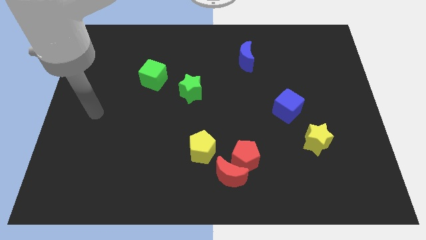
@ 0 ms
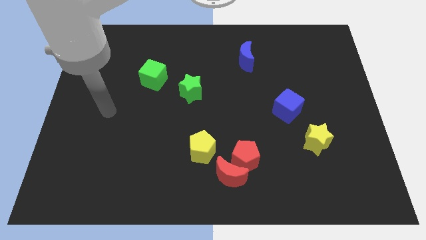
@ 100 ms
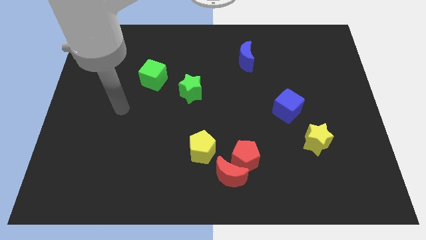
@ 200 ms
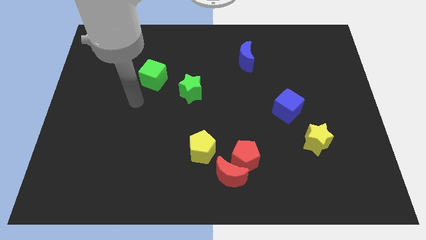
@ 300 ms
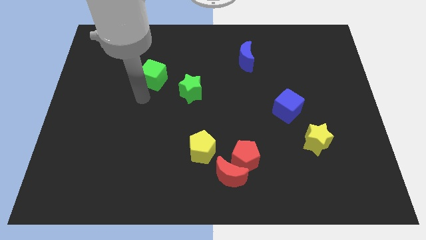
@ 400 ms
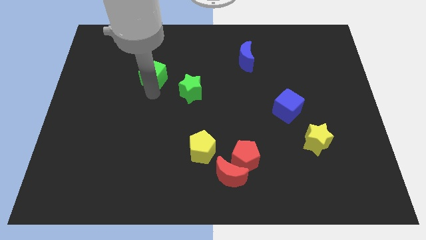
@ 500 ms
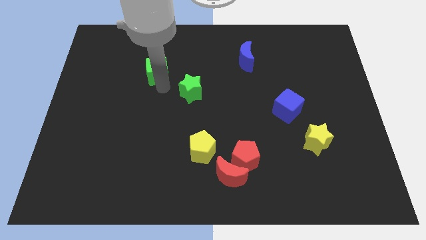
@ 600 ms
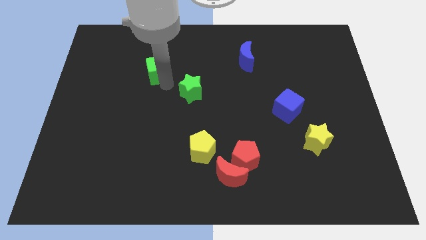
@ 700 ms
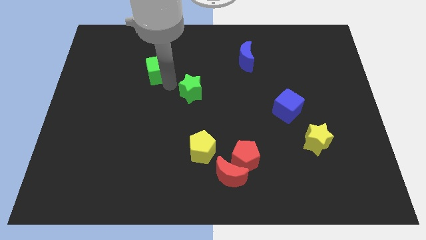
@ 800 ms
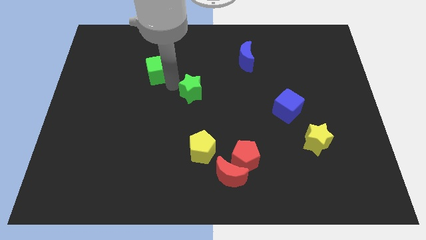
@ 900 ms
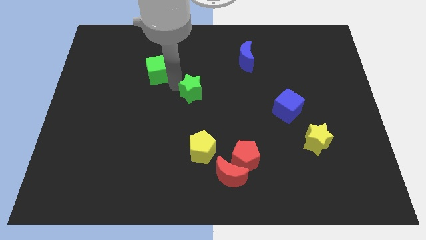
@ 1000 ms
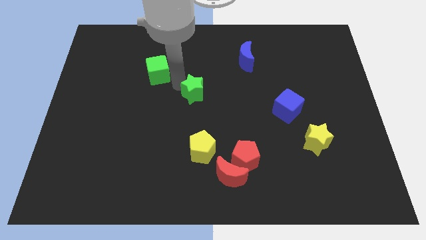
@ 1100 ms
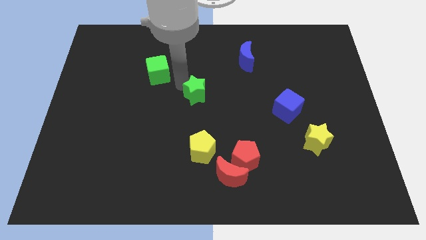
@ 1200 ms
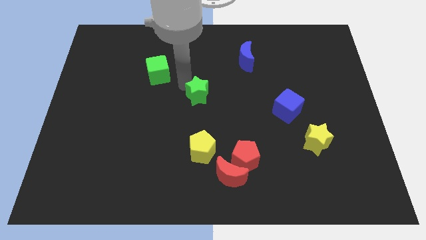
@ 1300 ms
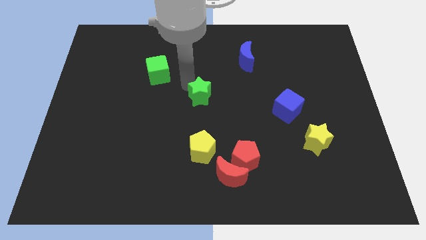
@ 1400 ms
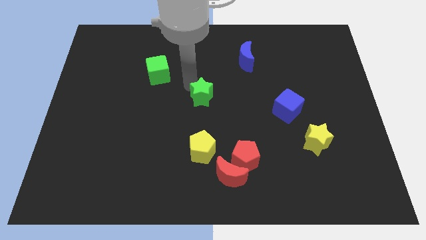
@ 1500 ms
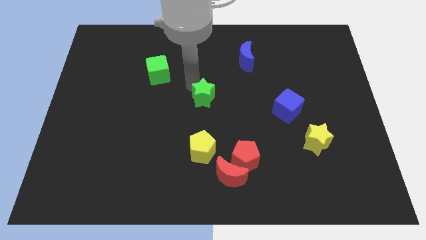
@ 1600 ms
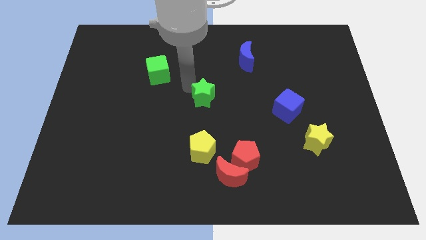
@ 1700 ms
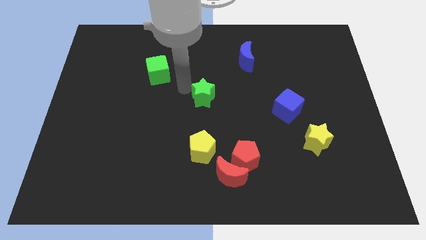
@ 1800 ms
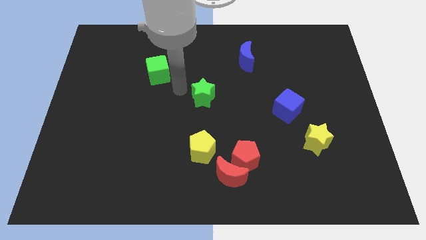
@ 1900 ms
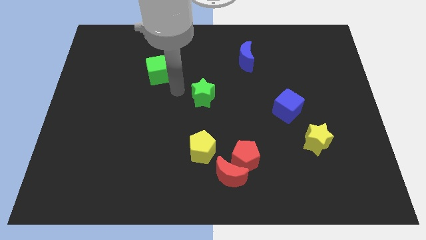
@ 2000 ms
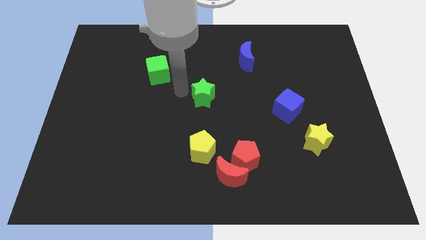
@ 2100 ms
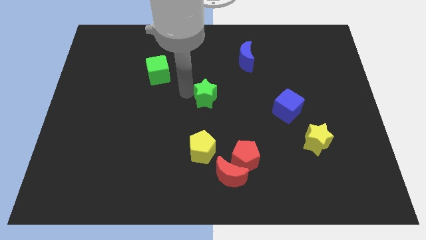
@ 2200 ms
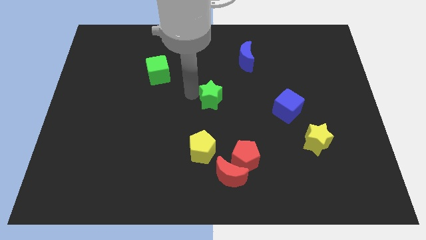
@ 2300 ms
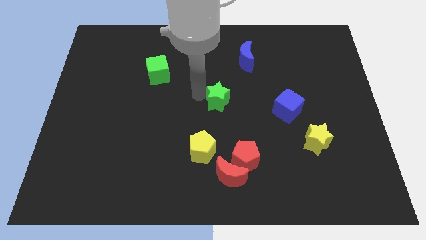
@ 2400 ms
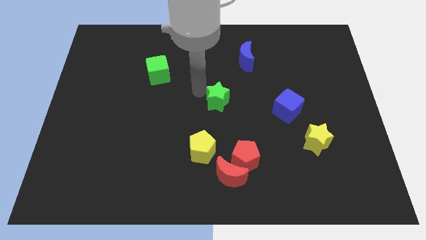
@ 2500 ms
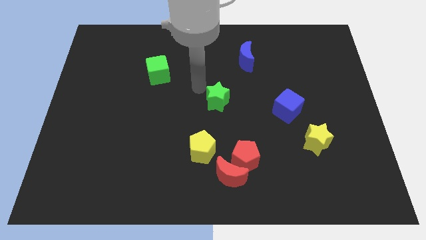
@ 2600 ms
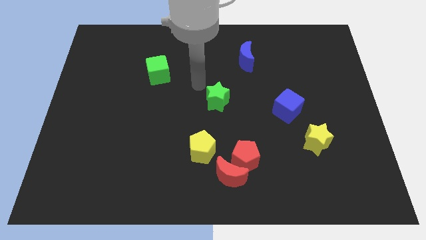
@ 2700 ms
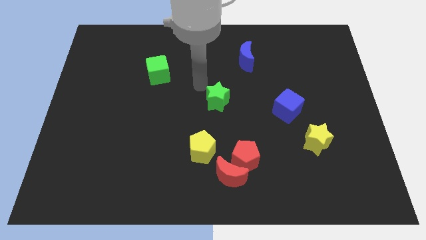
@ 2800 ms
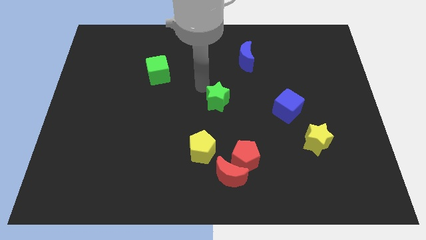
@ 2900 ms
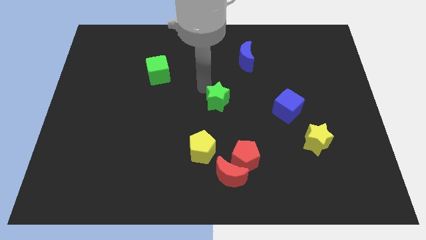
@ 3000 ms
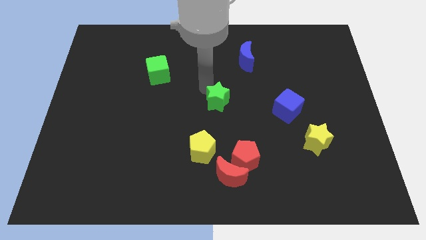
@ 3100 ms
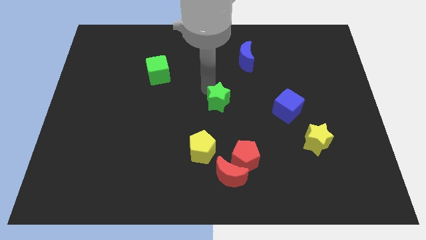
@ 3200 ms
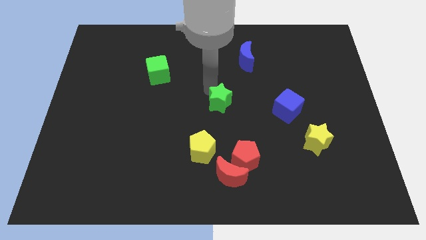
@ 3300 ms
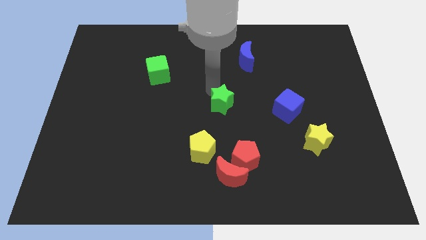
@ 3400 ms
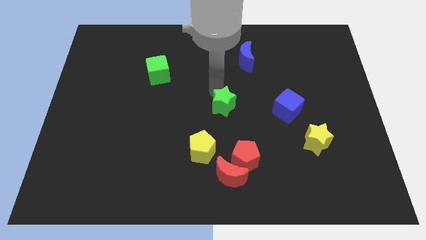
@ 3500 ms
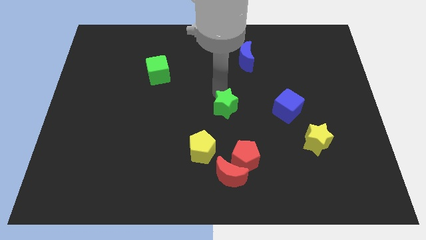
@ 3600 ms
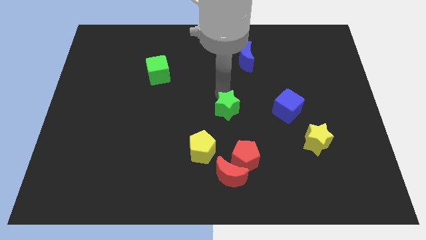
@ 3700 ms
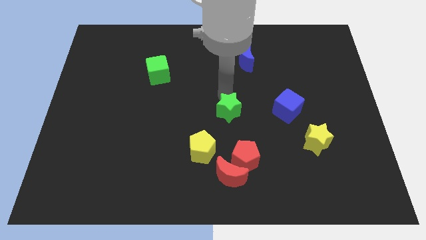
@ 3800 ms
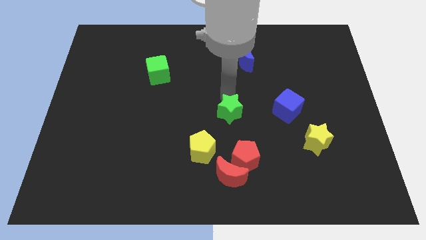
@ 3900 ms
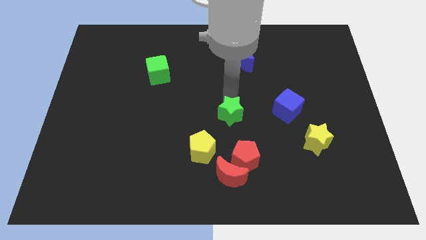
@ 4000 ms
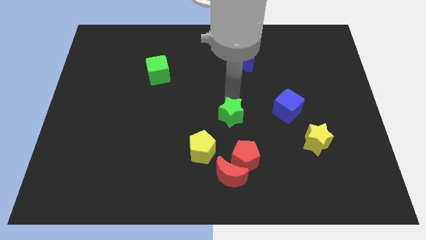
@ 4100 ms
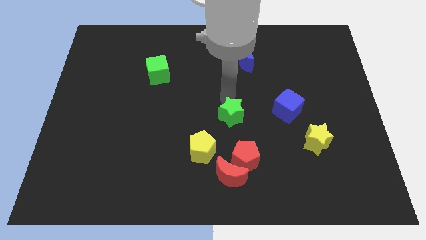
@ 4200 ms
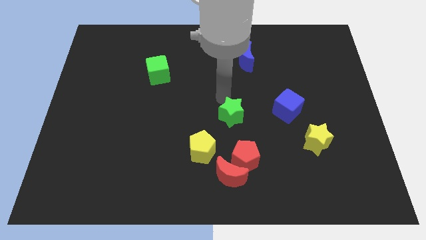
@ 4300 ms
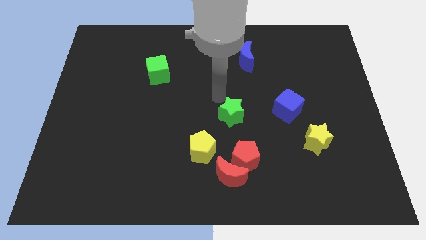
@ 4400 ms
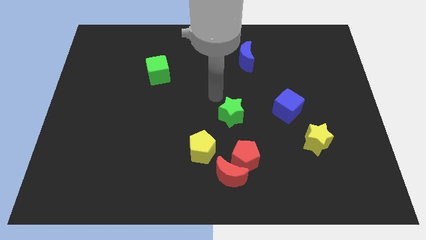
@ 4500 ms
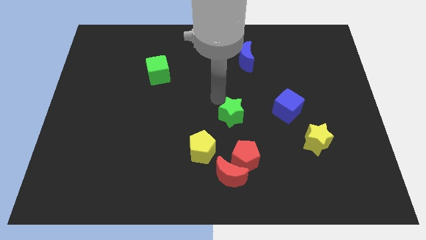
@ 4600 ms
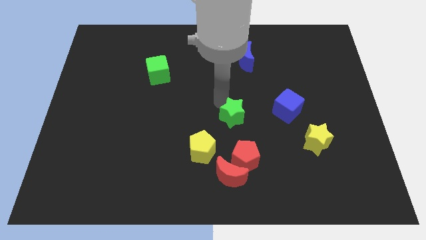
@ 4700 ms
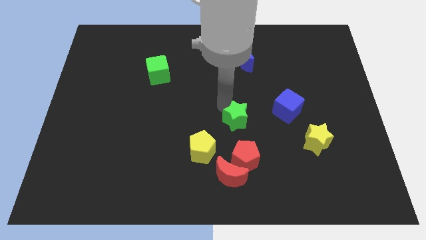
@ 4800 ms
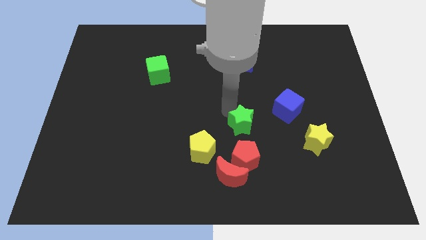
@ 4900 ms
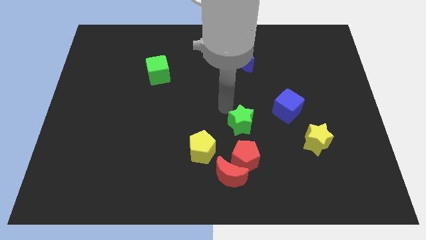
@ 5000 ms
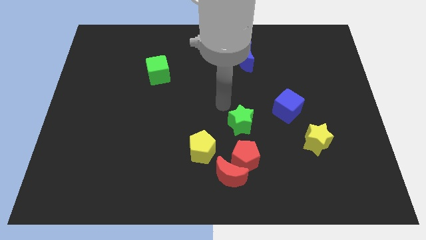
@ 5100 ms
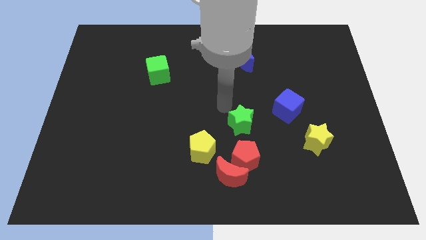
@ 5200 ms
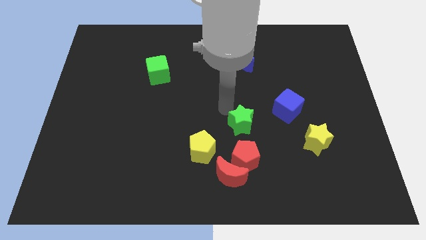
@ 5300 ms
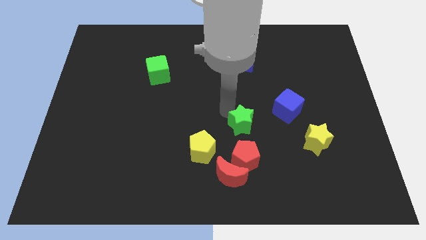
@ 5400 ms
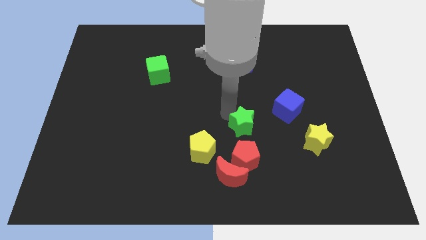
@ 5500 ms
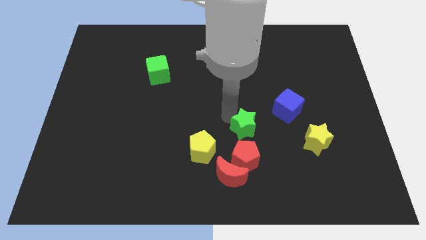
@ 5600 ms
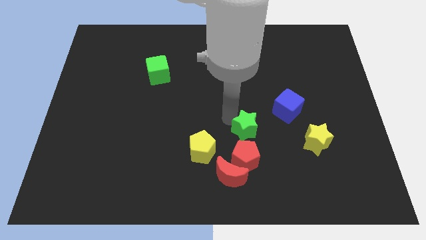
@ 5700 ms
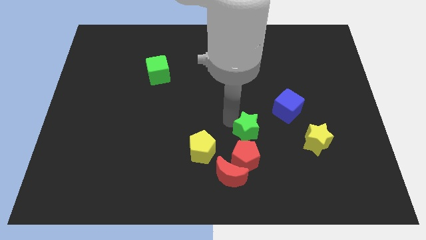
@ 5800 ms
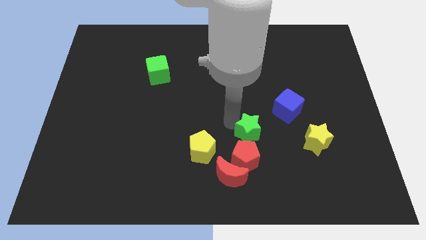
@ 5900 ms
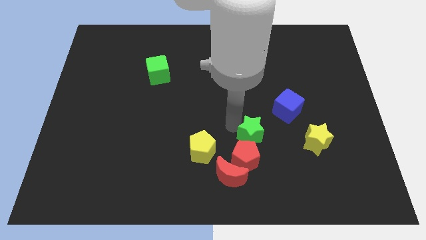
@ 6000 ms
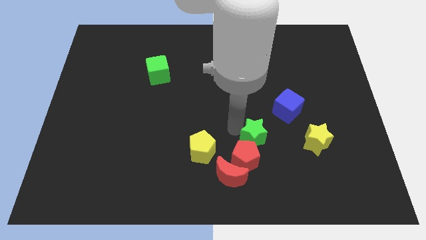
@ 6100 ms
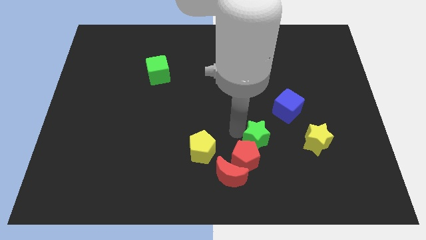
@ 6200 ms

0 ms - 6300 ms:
slide the green star down and right diagonally

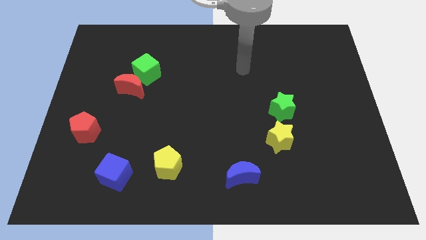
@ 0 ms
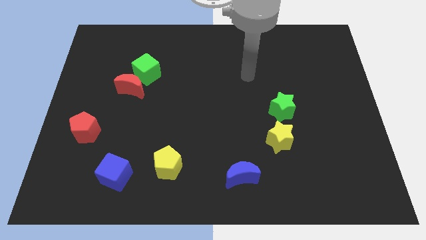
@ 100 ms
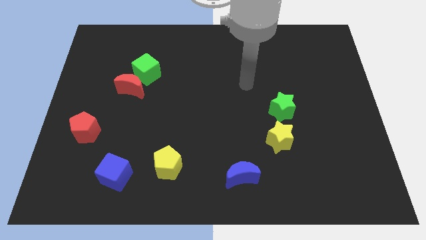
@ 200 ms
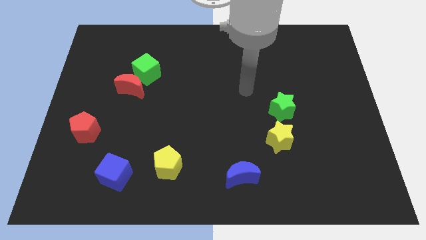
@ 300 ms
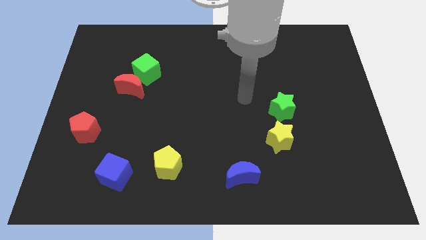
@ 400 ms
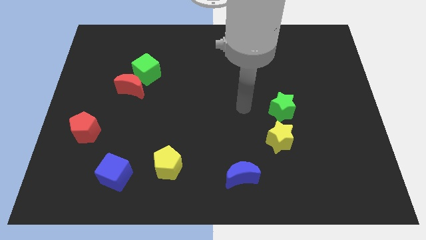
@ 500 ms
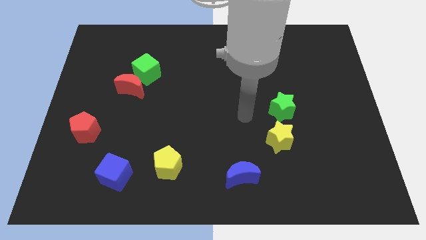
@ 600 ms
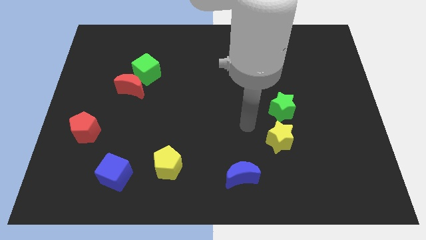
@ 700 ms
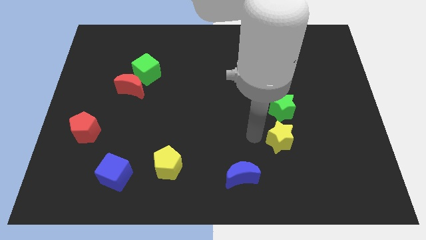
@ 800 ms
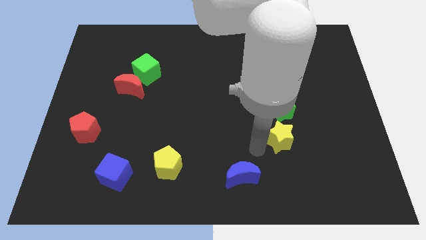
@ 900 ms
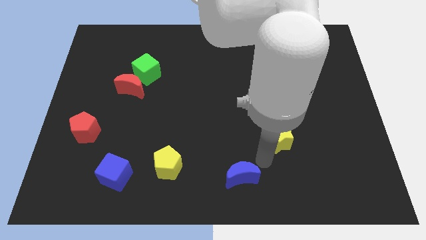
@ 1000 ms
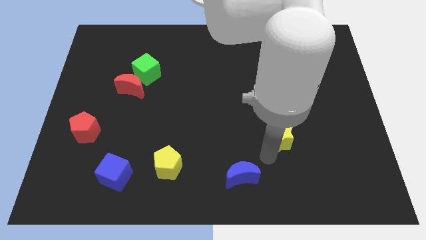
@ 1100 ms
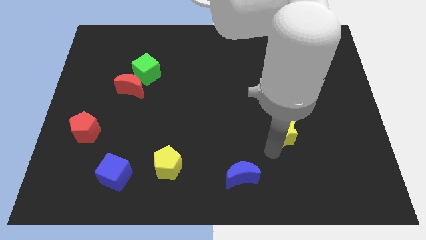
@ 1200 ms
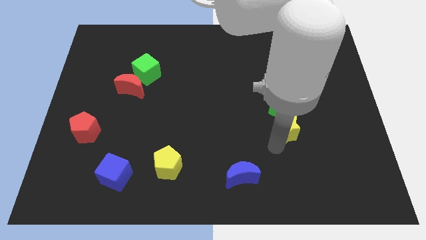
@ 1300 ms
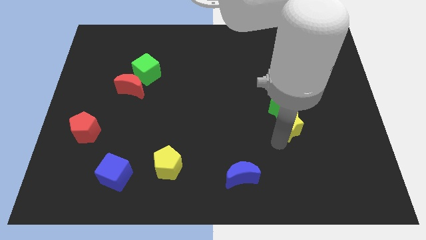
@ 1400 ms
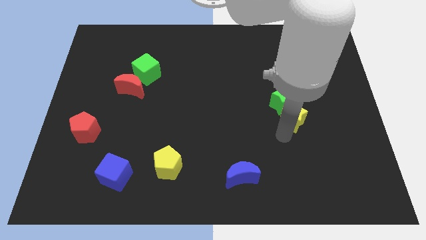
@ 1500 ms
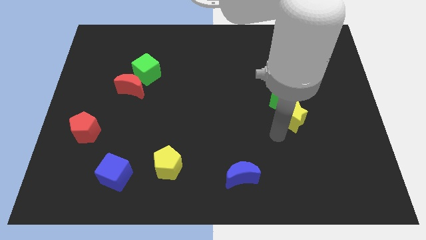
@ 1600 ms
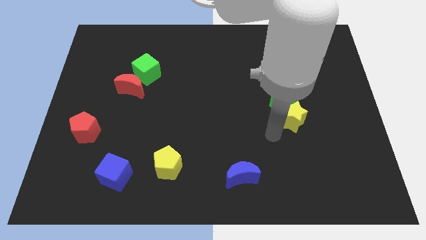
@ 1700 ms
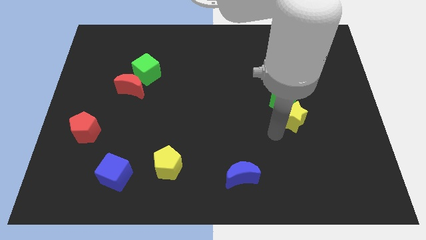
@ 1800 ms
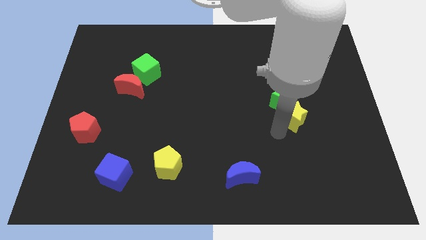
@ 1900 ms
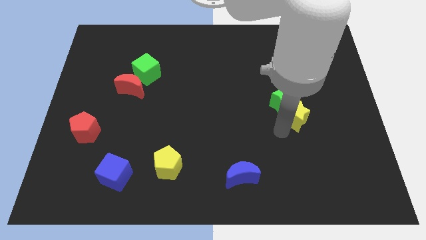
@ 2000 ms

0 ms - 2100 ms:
move the yellow star upwards and then to the right somewhat

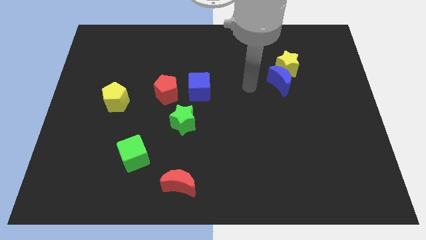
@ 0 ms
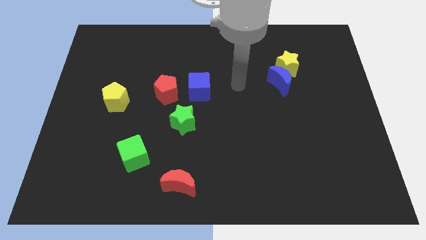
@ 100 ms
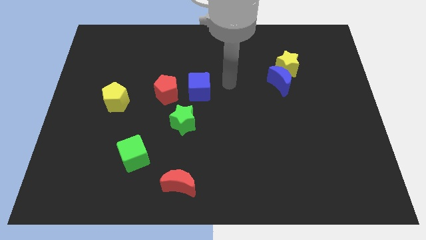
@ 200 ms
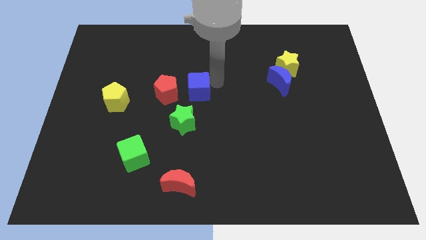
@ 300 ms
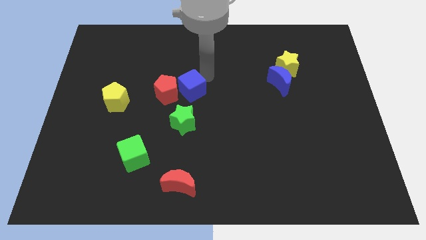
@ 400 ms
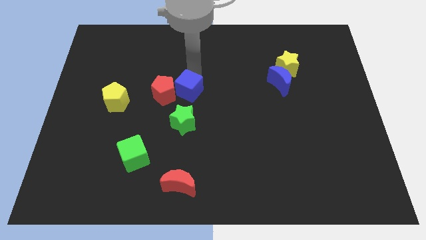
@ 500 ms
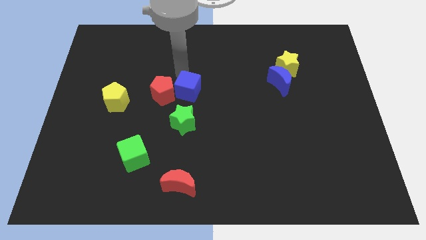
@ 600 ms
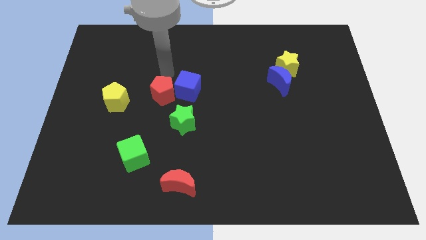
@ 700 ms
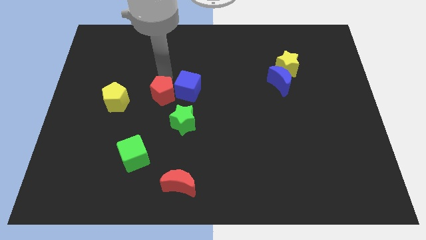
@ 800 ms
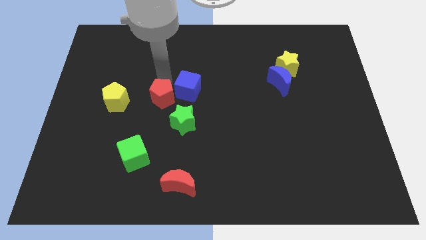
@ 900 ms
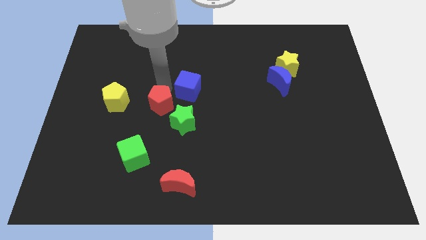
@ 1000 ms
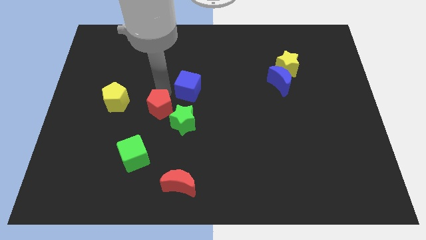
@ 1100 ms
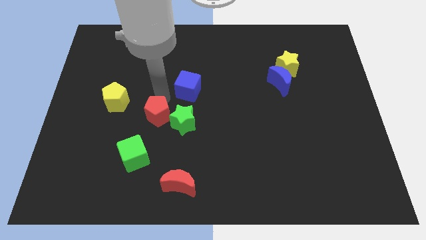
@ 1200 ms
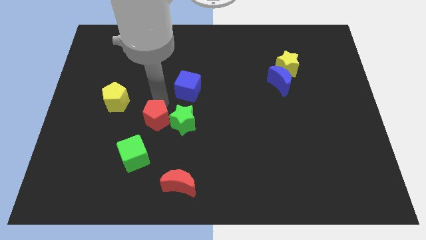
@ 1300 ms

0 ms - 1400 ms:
slide the red pentagon a little bit downwards
